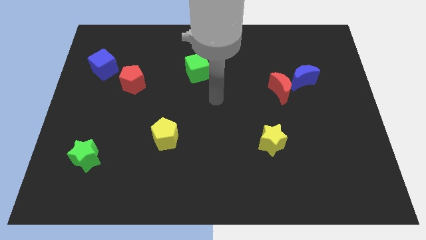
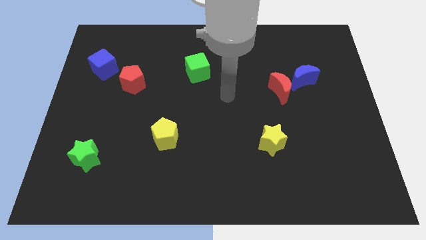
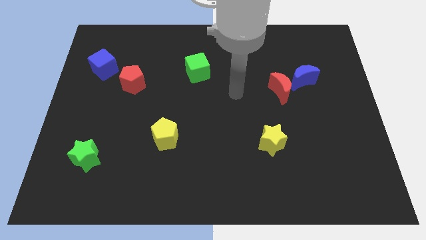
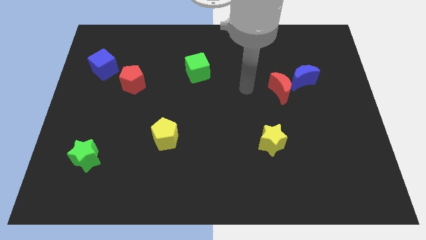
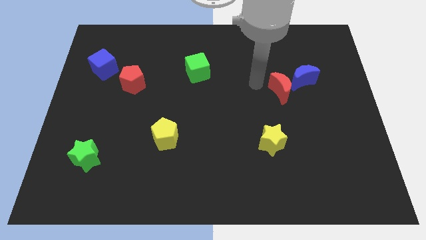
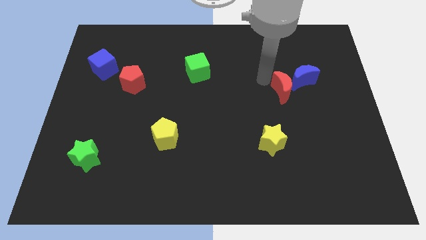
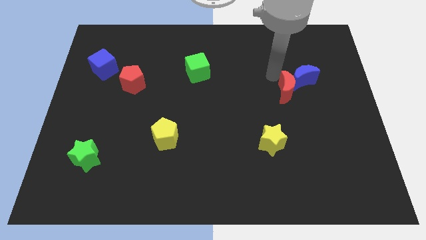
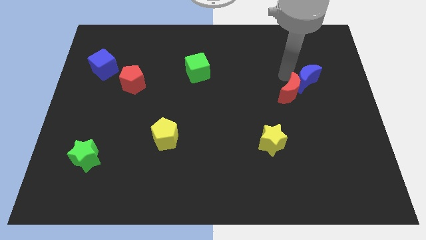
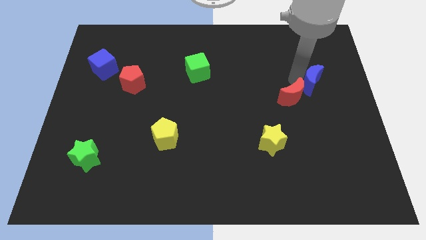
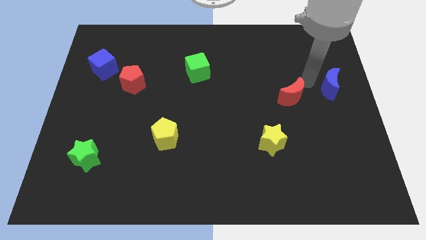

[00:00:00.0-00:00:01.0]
move the red moon away from the blue moon

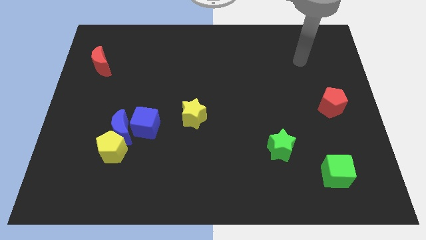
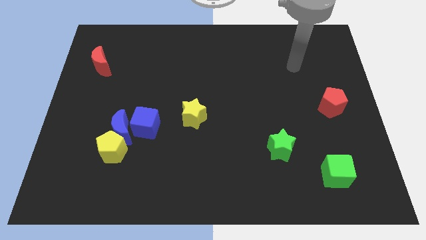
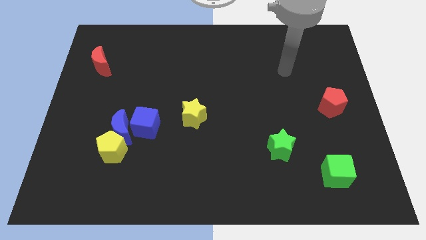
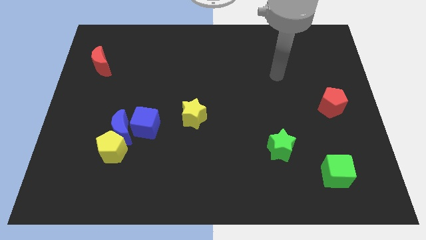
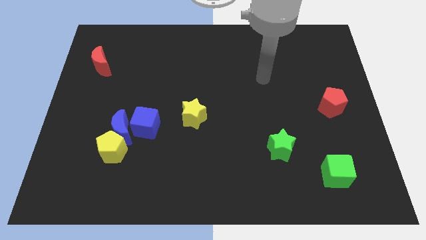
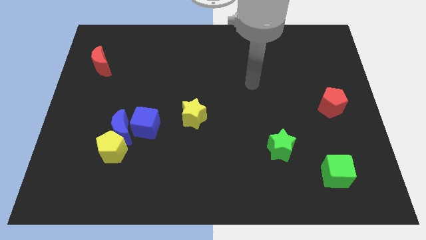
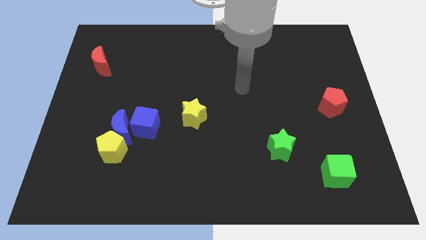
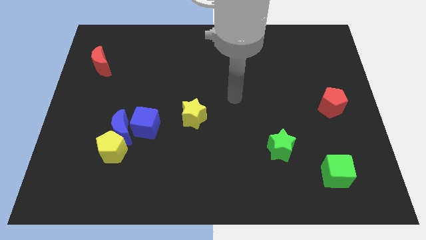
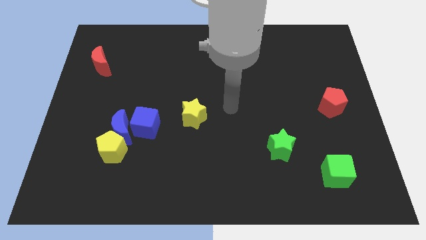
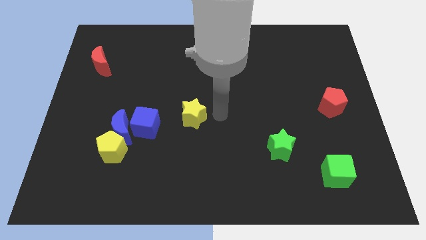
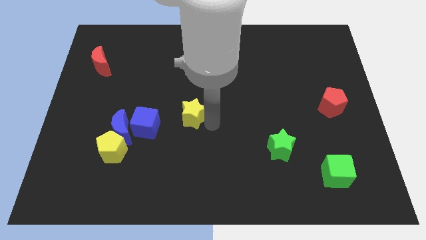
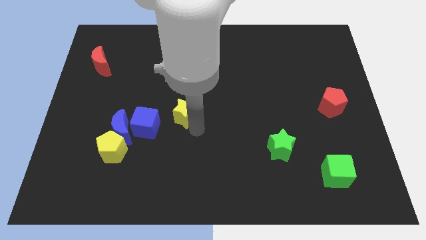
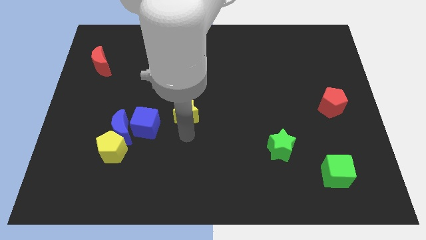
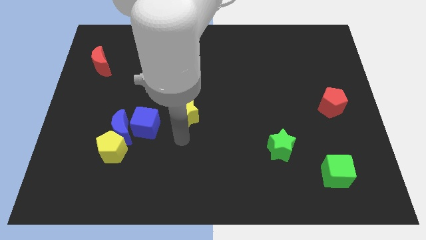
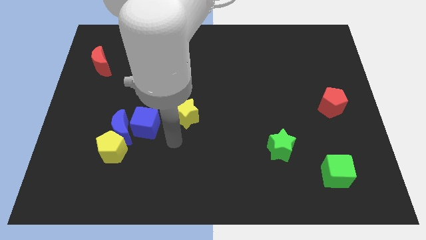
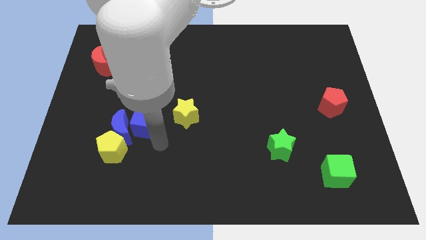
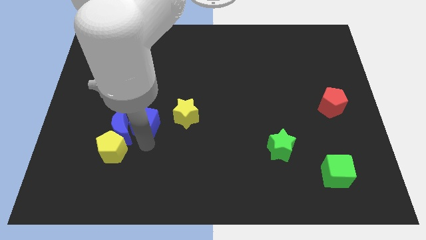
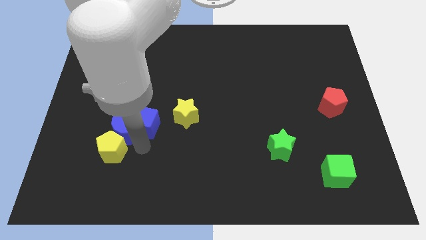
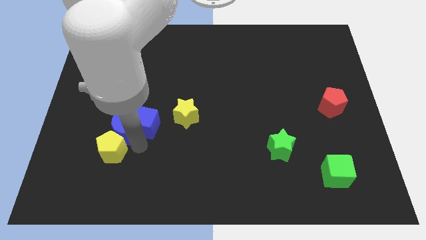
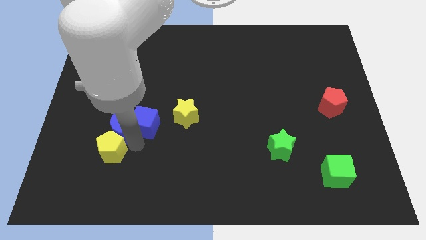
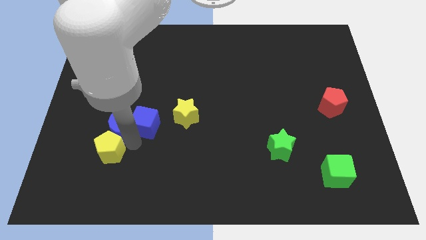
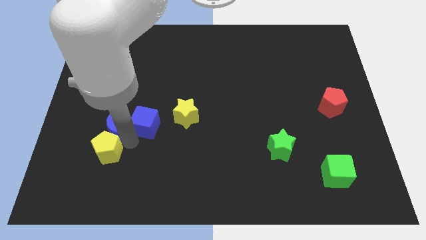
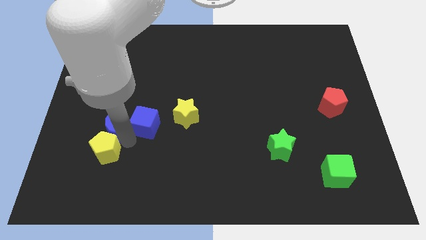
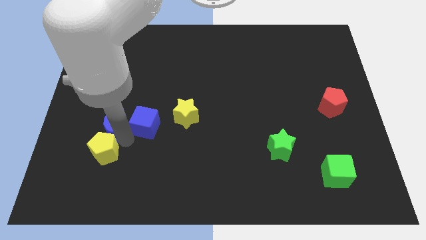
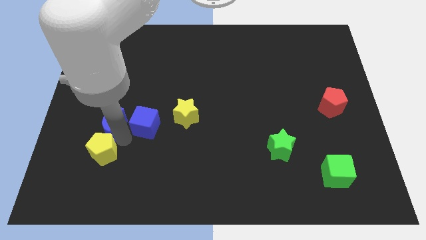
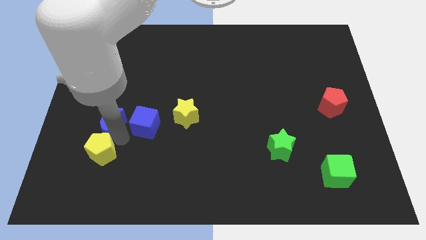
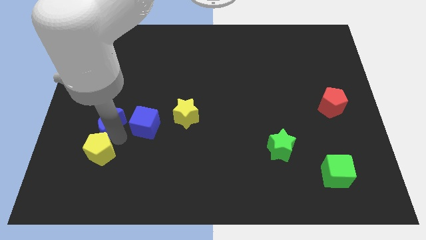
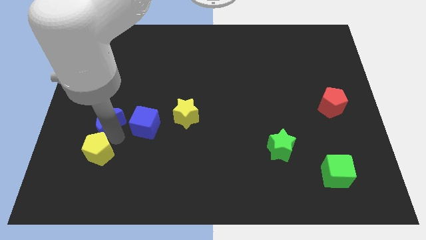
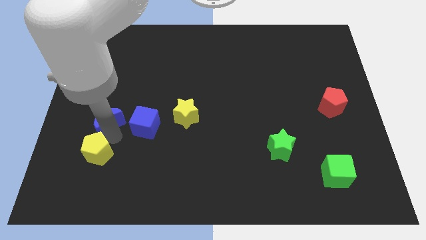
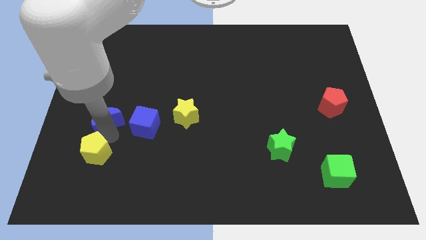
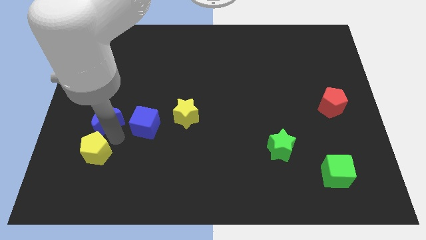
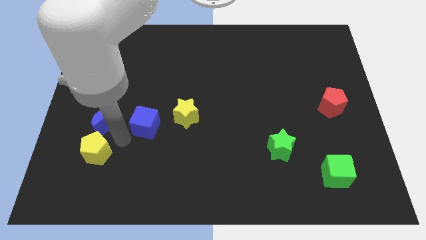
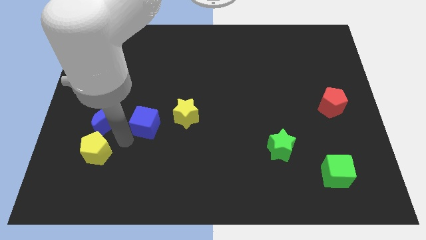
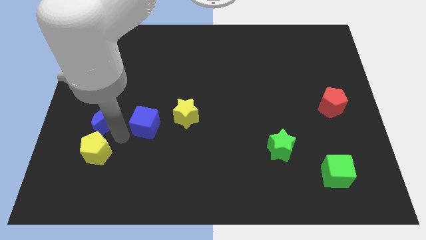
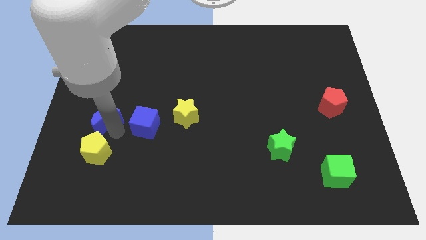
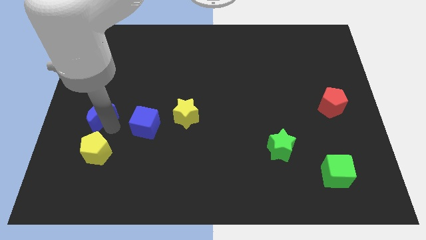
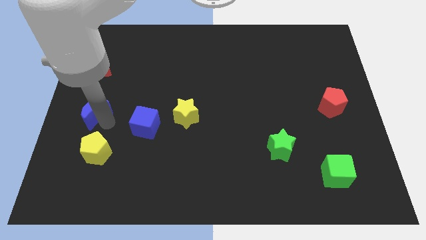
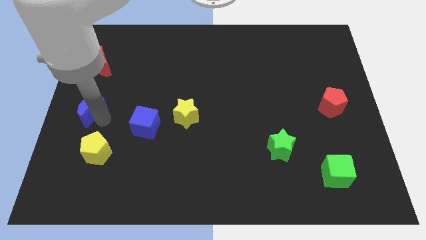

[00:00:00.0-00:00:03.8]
move the blue moon away from the yellow pentagon and blue cube

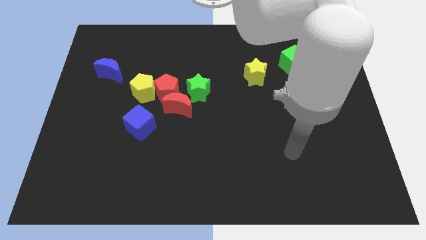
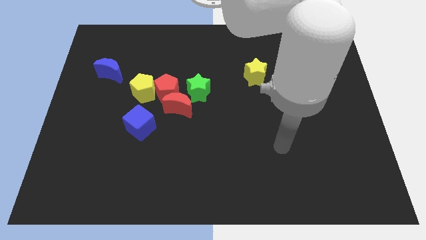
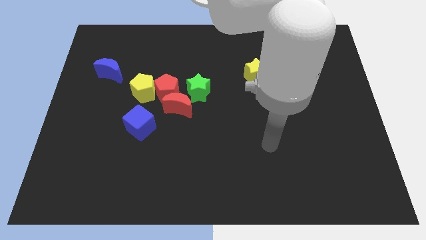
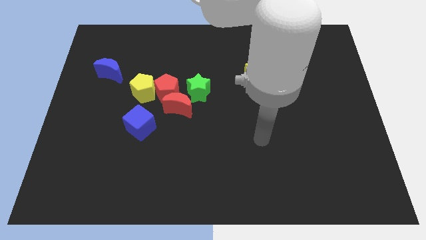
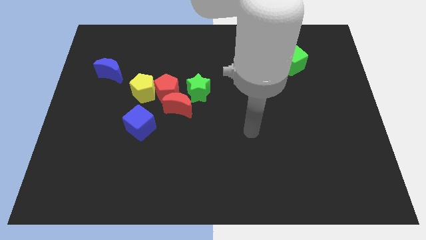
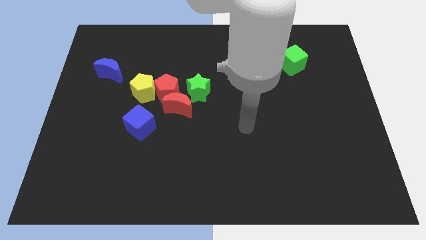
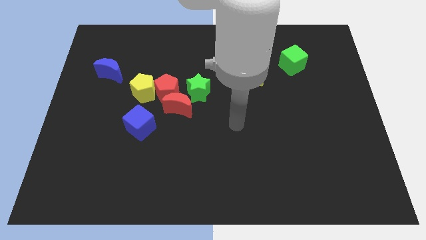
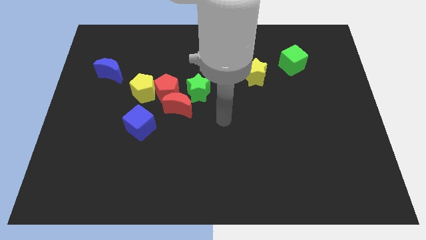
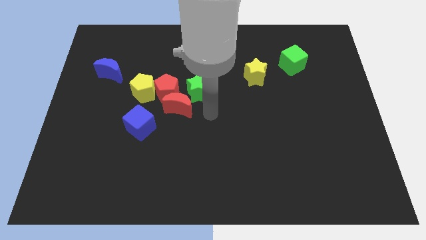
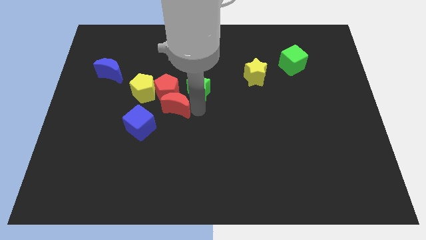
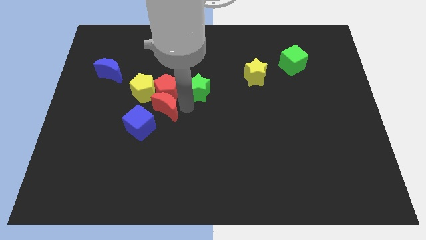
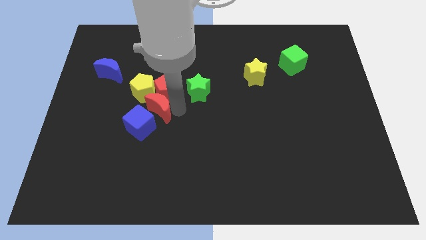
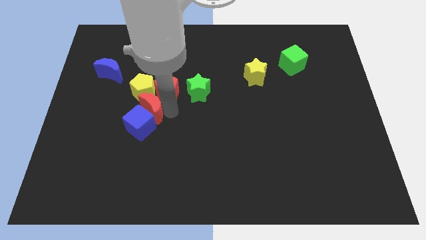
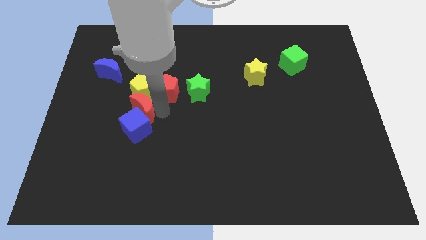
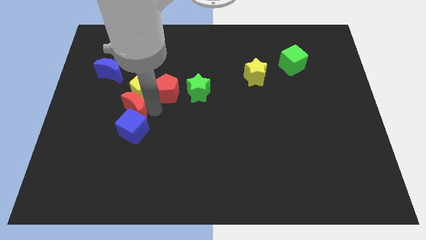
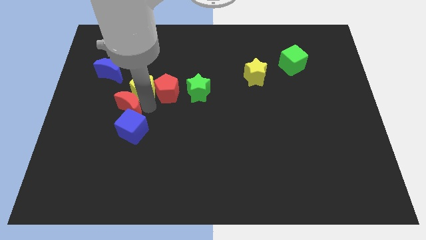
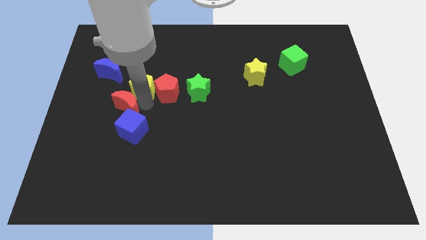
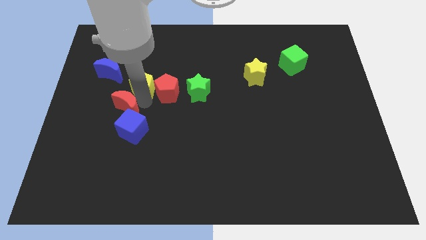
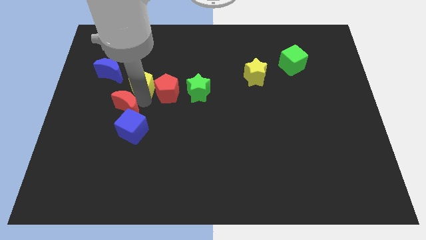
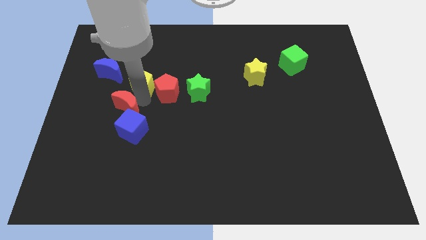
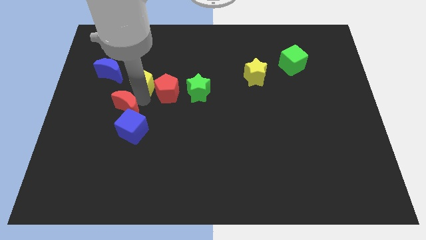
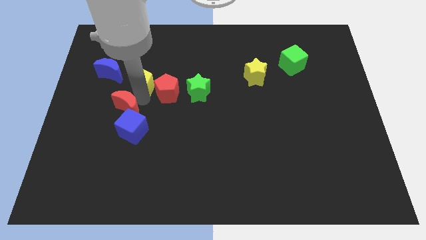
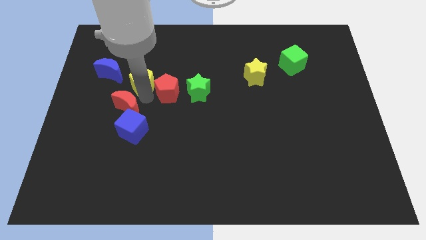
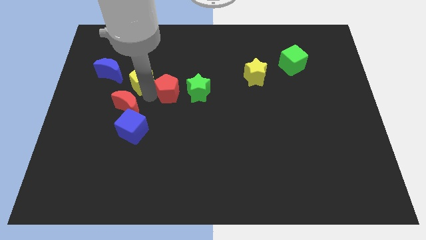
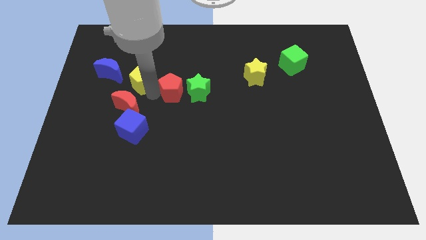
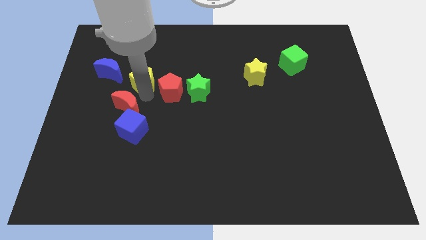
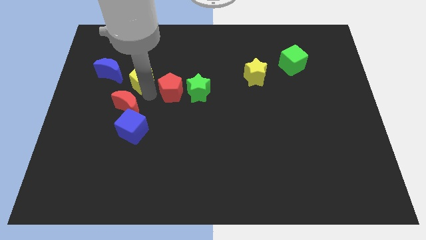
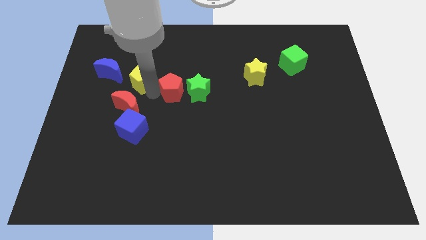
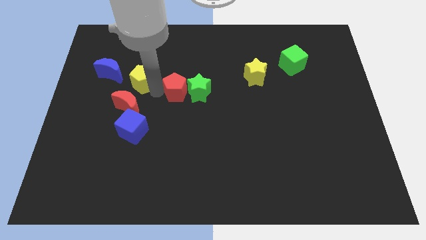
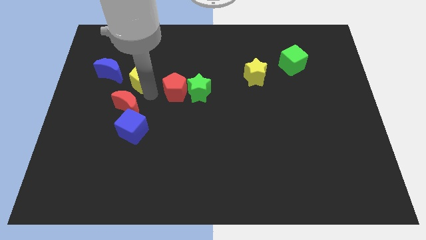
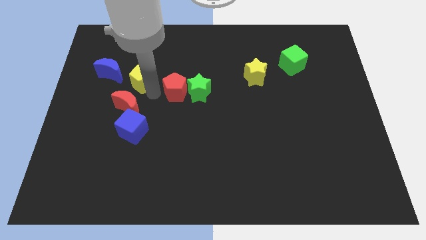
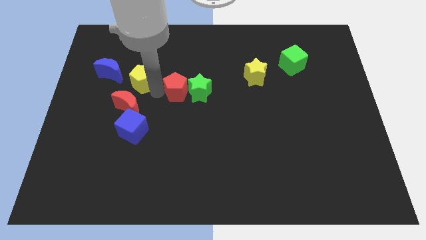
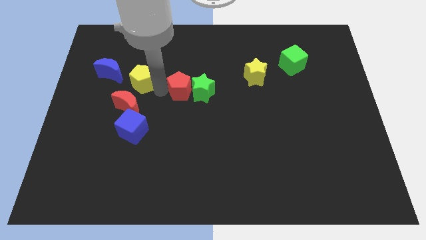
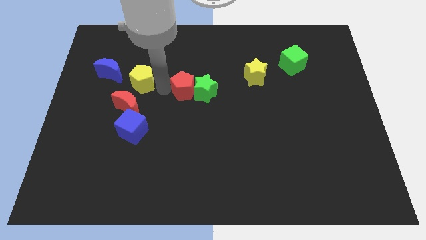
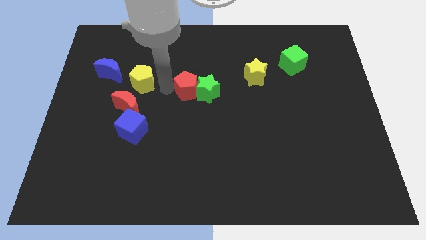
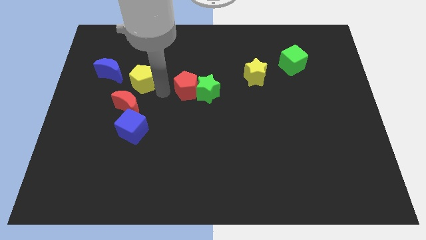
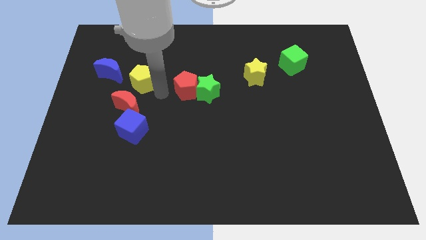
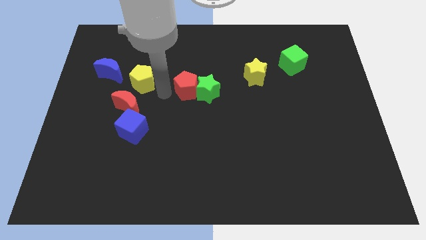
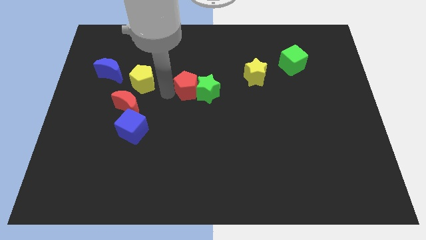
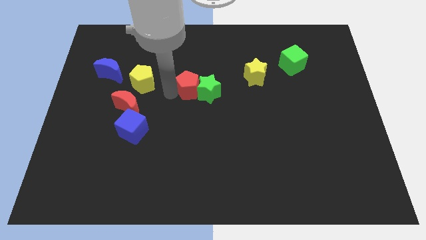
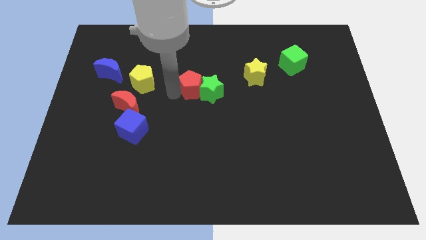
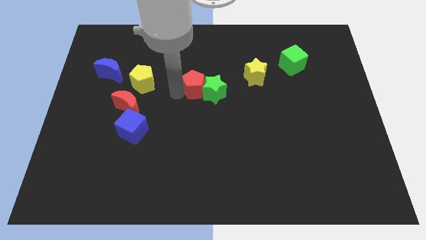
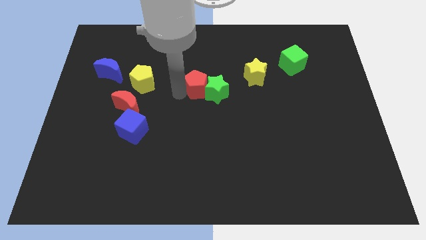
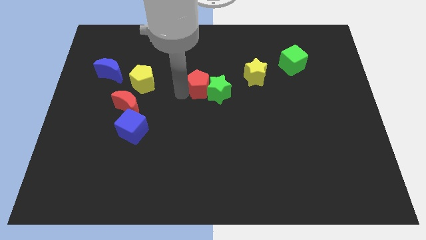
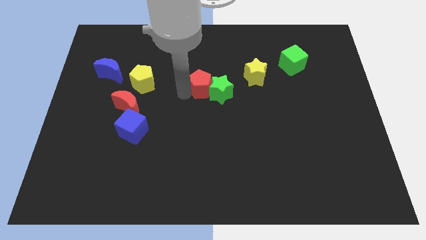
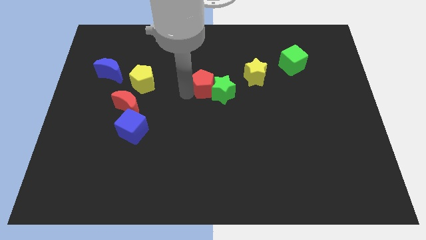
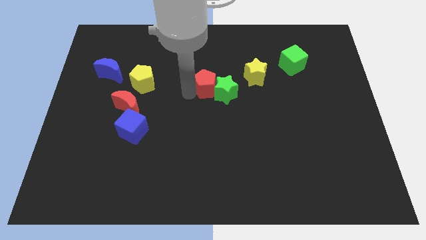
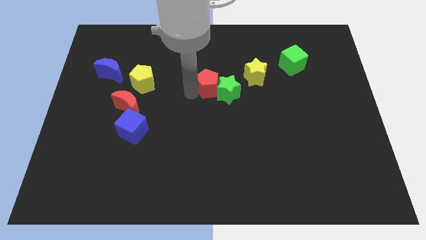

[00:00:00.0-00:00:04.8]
pull the red pentagon apart from the red moon, yellow pentagon, and green star
